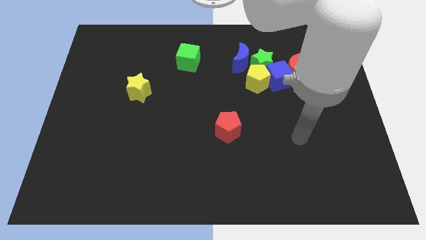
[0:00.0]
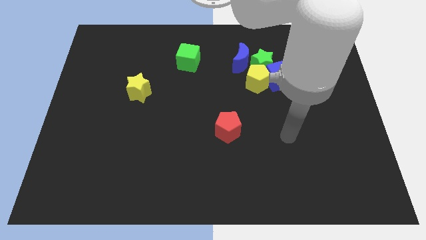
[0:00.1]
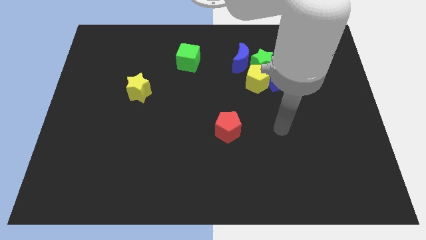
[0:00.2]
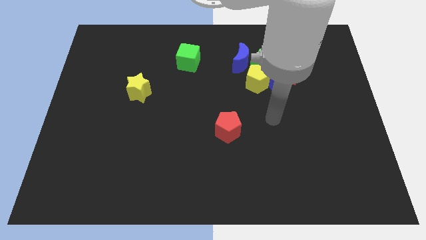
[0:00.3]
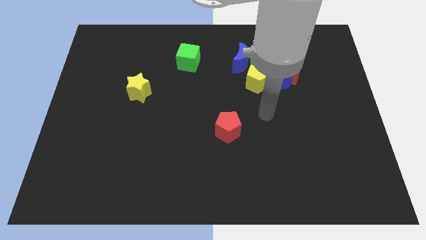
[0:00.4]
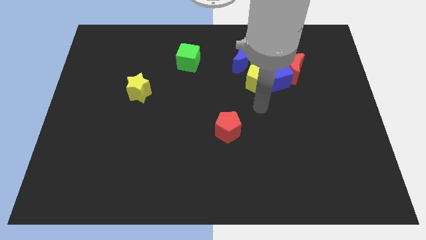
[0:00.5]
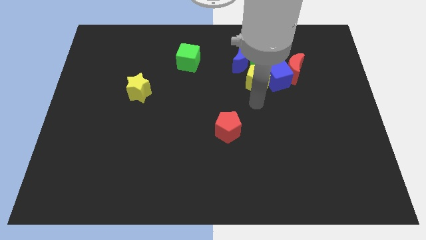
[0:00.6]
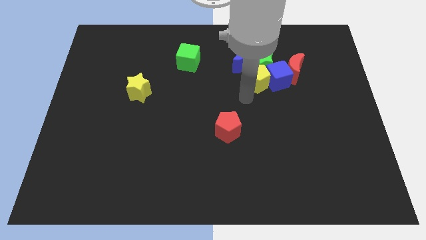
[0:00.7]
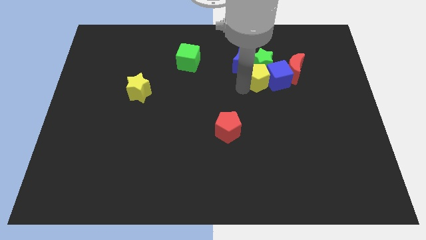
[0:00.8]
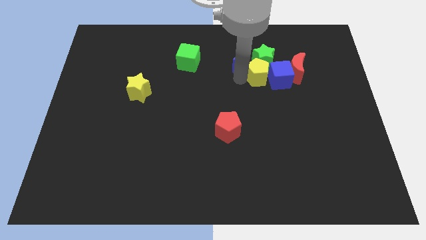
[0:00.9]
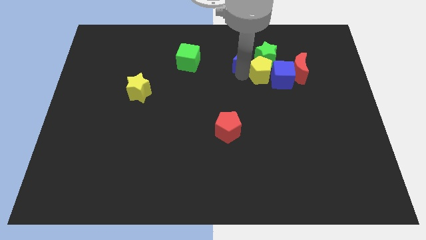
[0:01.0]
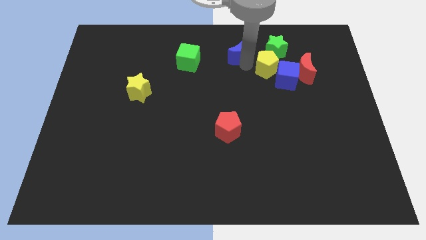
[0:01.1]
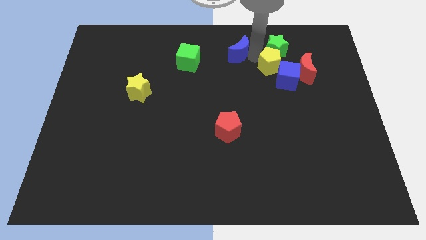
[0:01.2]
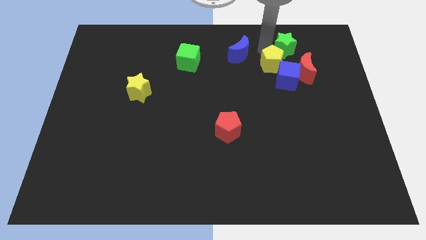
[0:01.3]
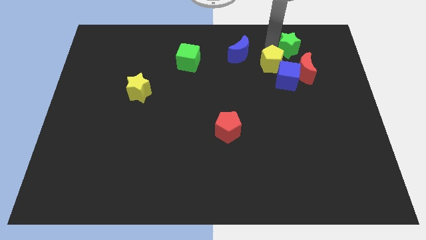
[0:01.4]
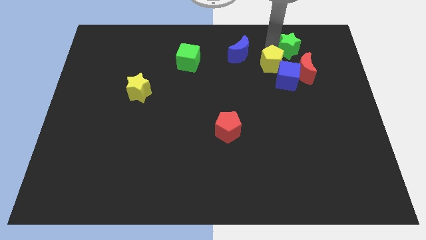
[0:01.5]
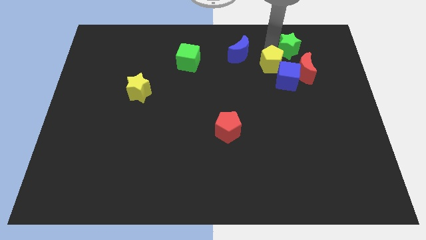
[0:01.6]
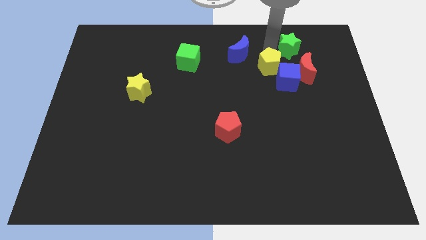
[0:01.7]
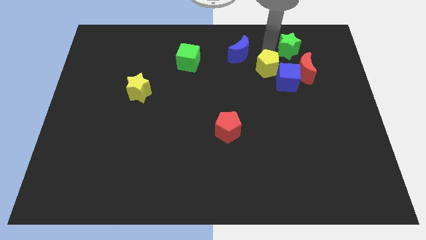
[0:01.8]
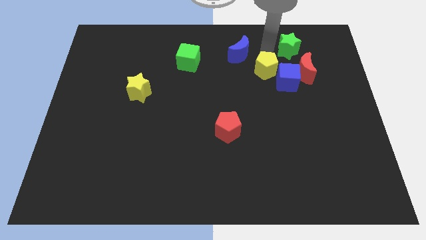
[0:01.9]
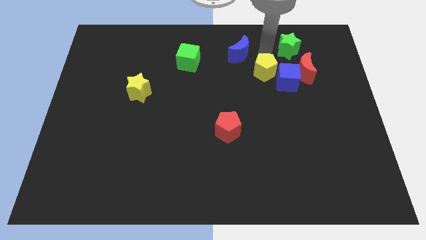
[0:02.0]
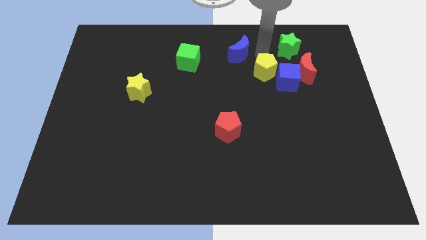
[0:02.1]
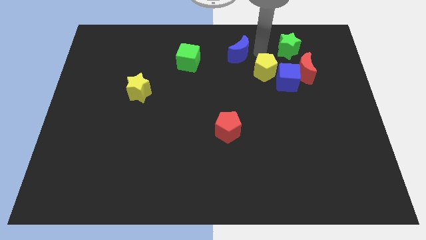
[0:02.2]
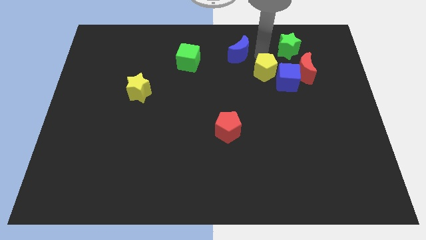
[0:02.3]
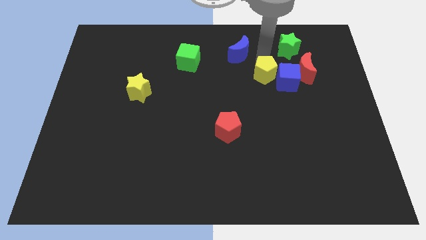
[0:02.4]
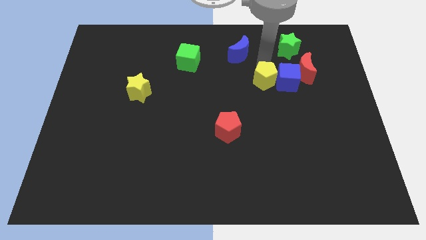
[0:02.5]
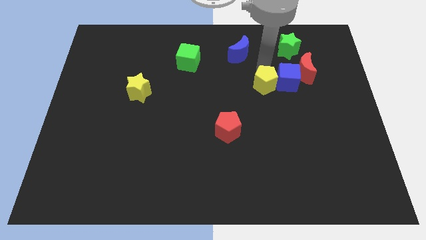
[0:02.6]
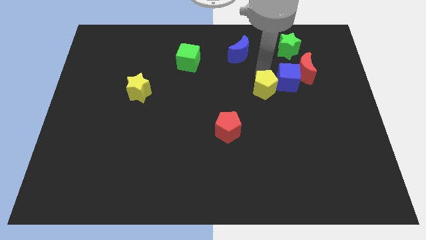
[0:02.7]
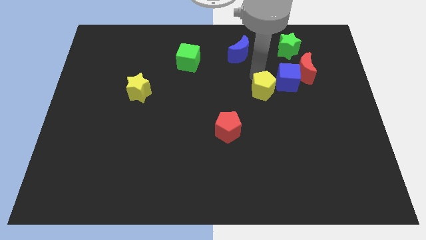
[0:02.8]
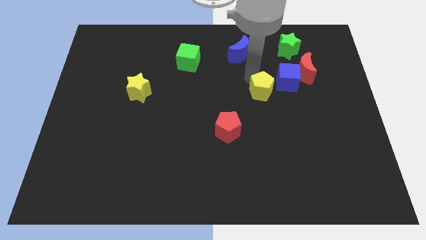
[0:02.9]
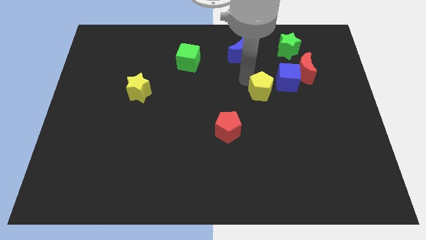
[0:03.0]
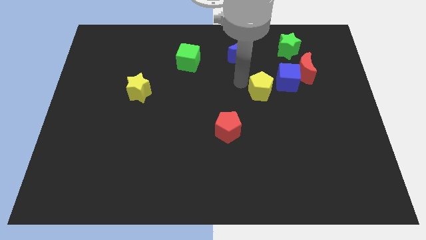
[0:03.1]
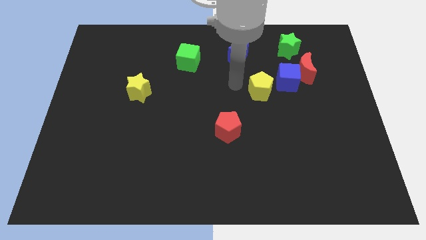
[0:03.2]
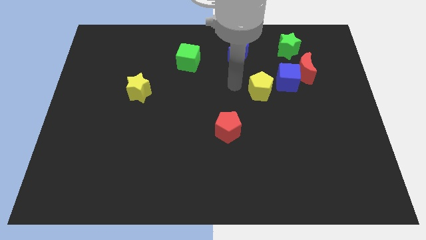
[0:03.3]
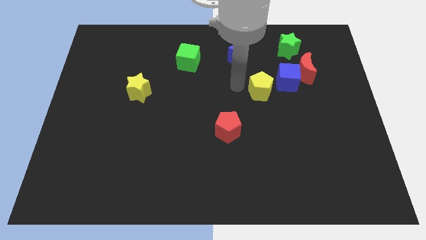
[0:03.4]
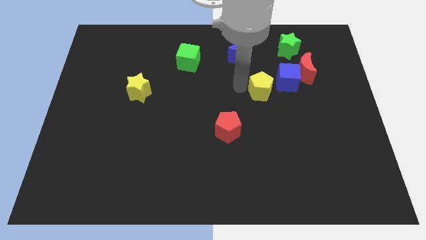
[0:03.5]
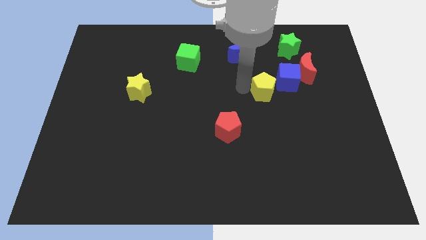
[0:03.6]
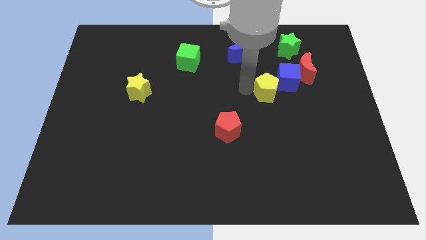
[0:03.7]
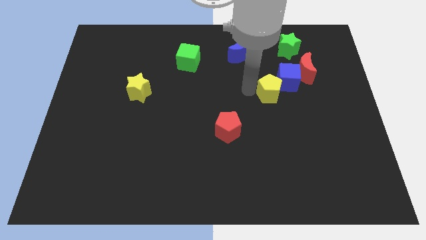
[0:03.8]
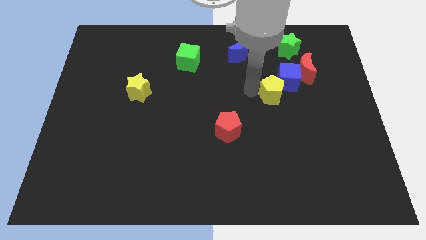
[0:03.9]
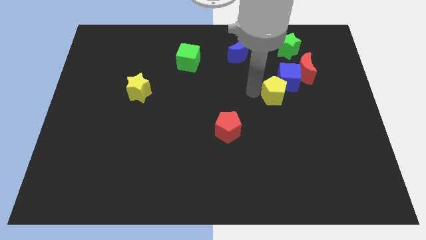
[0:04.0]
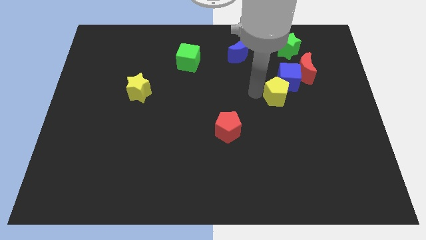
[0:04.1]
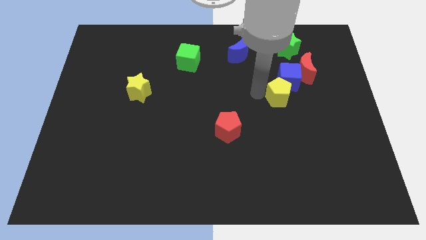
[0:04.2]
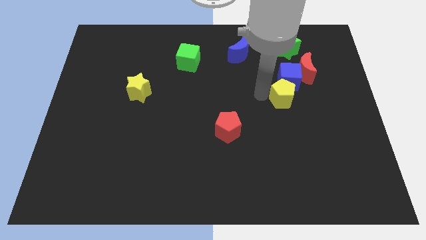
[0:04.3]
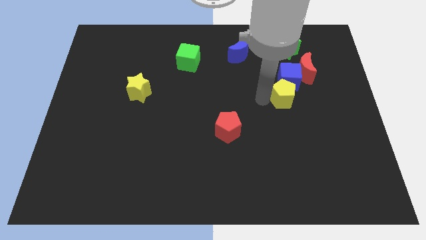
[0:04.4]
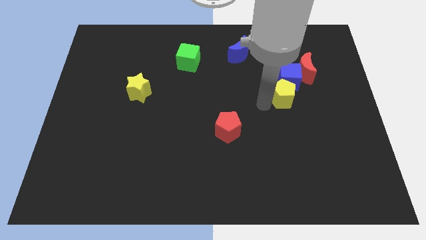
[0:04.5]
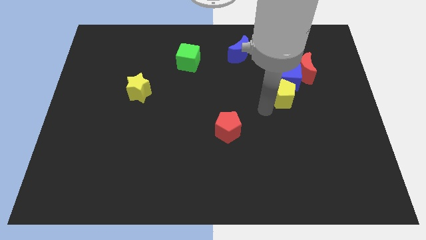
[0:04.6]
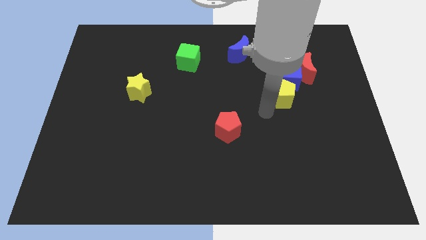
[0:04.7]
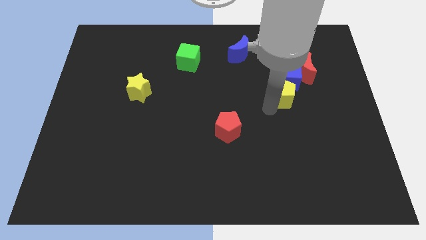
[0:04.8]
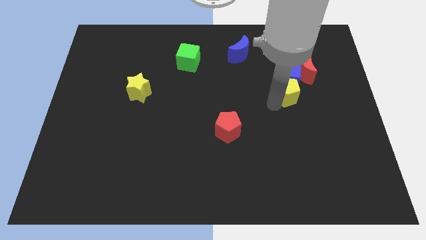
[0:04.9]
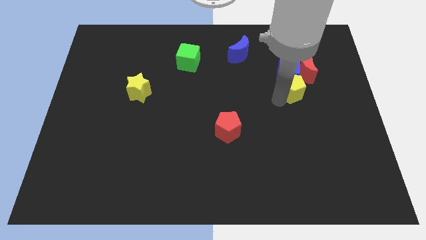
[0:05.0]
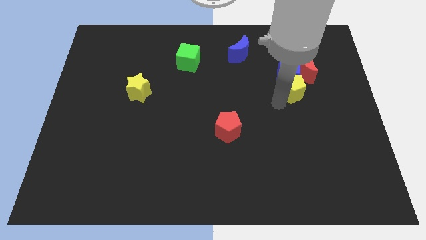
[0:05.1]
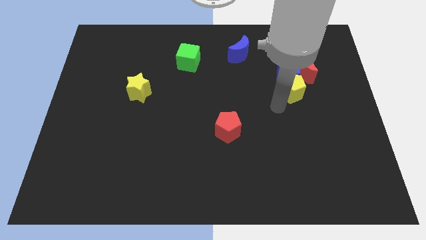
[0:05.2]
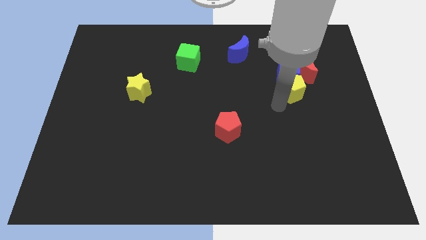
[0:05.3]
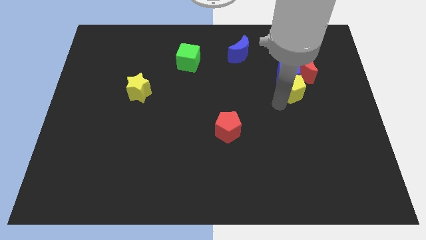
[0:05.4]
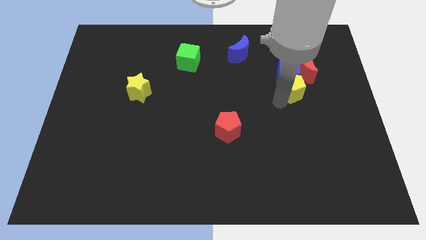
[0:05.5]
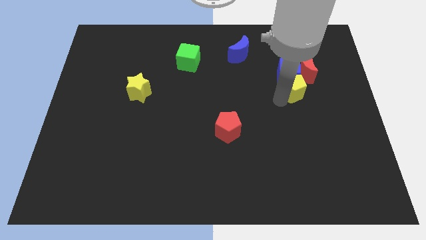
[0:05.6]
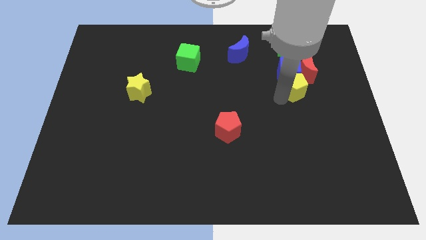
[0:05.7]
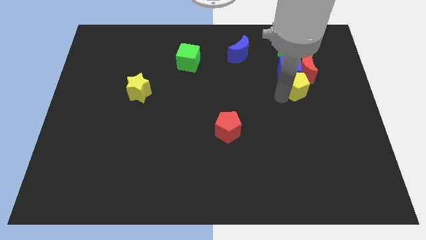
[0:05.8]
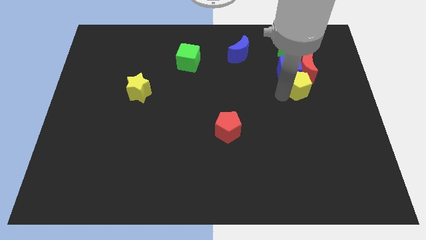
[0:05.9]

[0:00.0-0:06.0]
slide the yellow pentagon next to the red moon

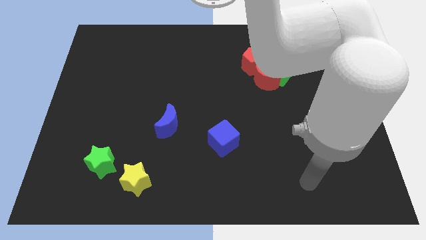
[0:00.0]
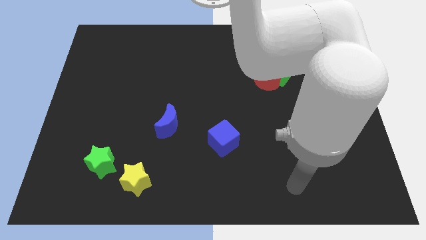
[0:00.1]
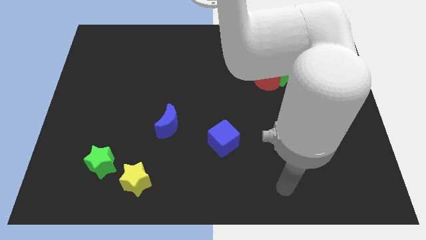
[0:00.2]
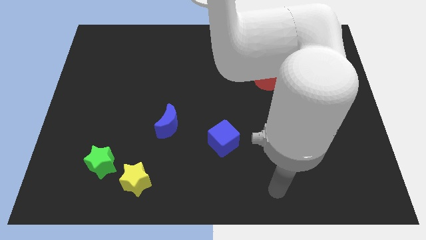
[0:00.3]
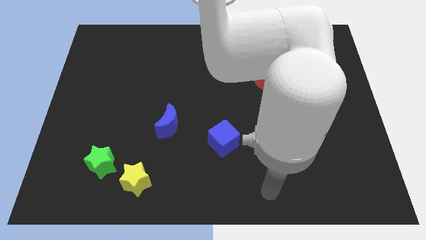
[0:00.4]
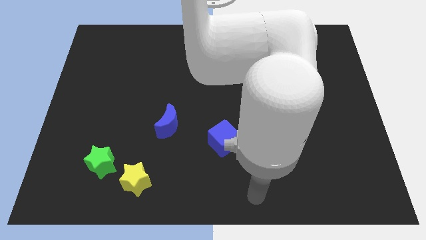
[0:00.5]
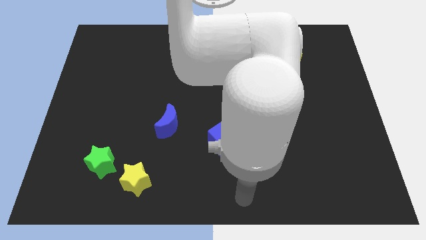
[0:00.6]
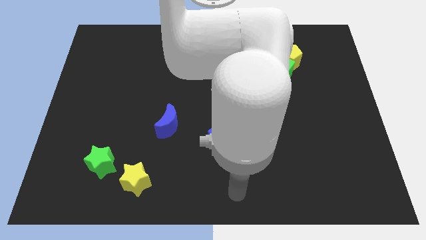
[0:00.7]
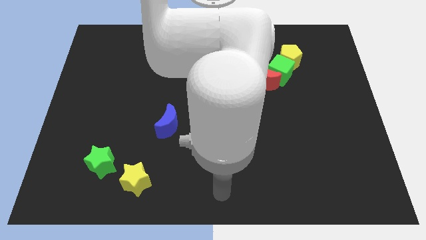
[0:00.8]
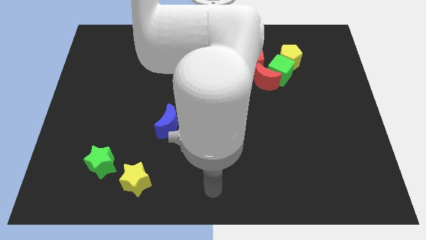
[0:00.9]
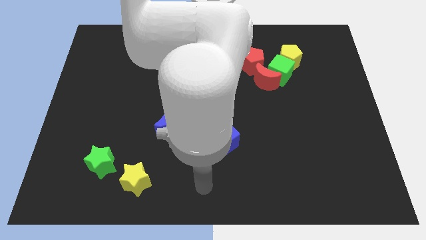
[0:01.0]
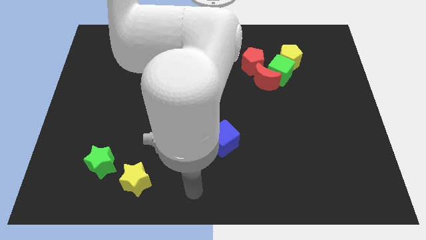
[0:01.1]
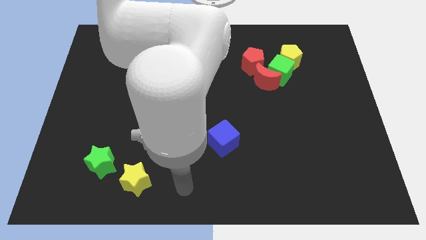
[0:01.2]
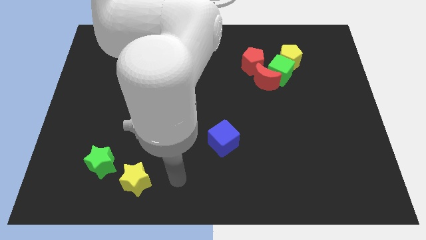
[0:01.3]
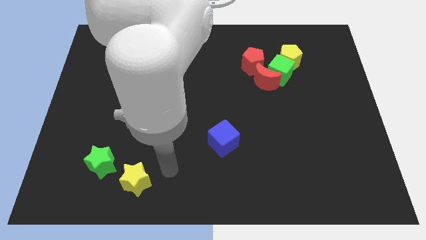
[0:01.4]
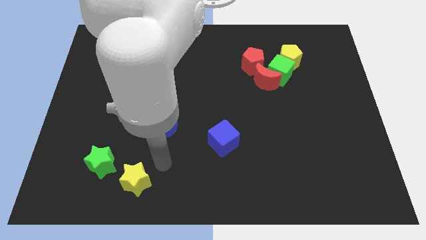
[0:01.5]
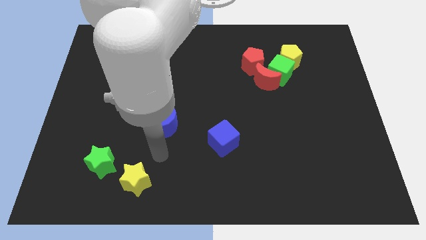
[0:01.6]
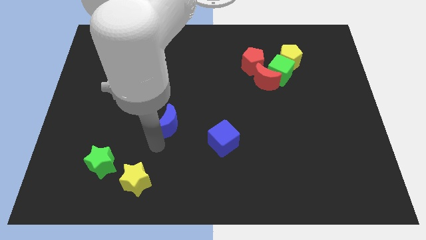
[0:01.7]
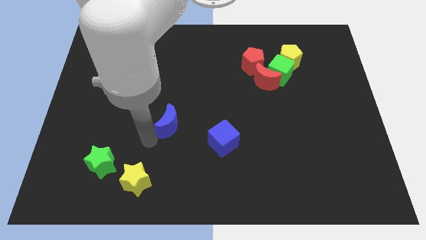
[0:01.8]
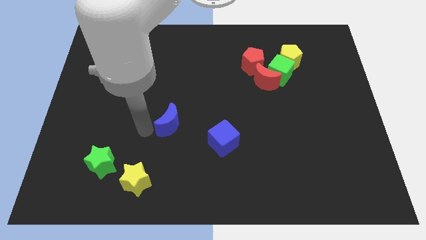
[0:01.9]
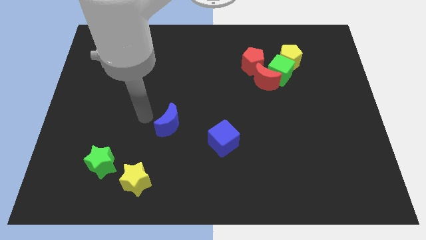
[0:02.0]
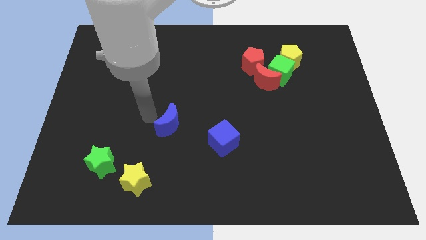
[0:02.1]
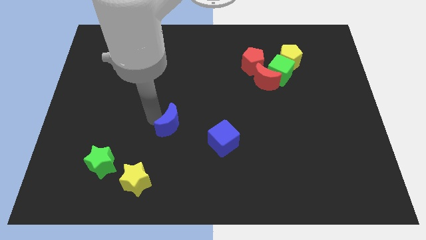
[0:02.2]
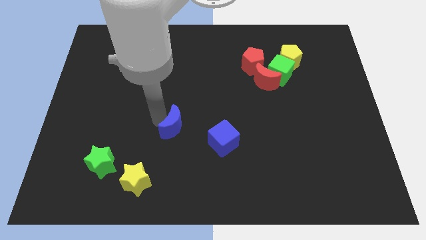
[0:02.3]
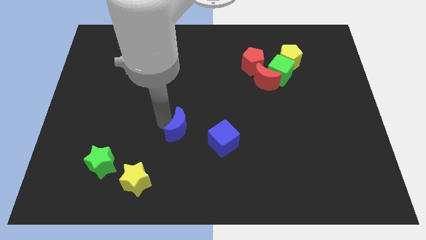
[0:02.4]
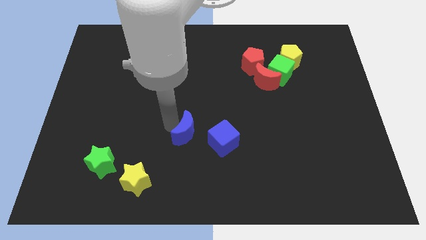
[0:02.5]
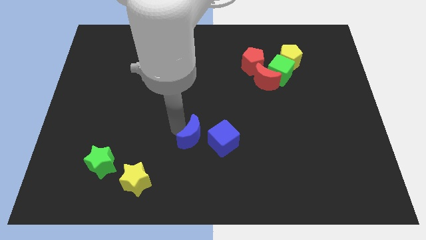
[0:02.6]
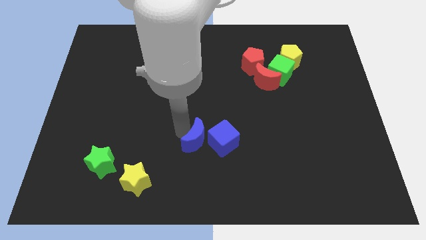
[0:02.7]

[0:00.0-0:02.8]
push the blue moon towards the blue cube
